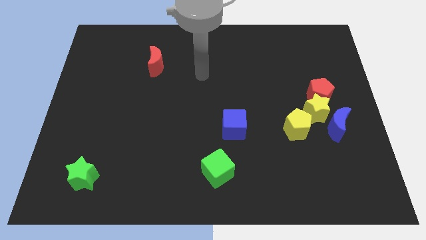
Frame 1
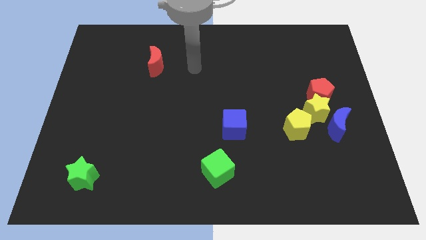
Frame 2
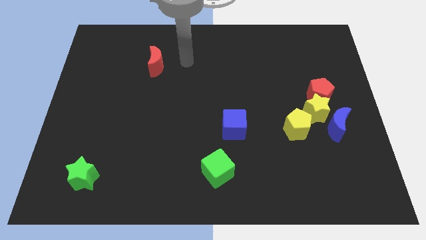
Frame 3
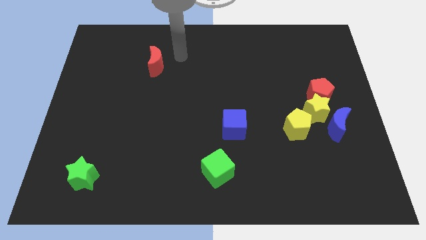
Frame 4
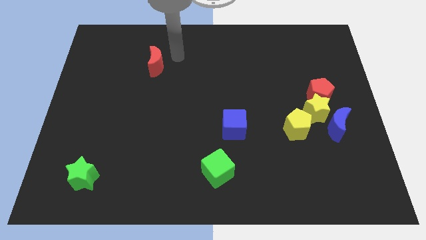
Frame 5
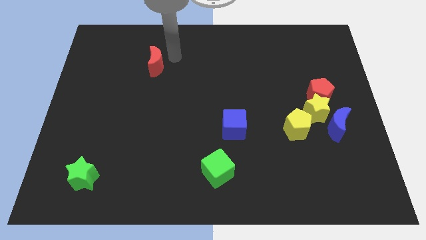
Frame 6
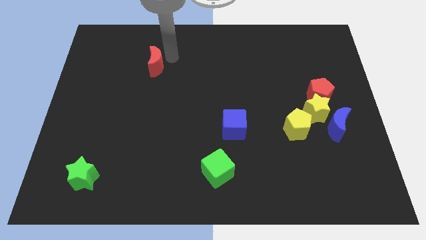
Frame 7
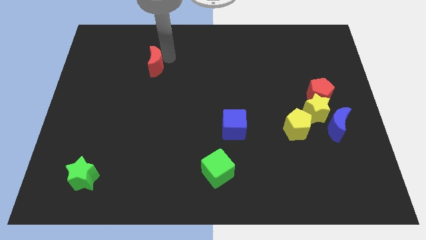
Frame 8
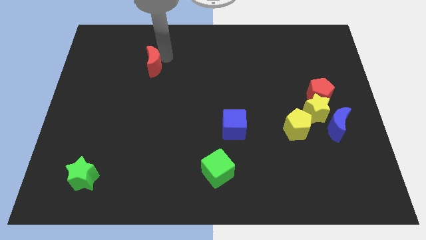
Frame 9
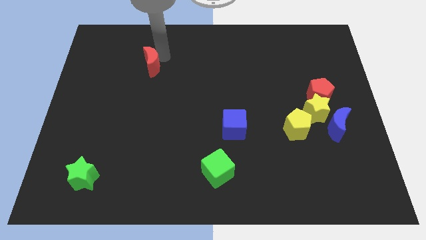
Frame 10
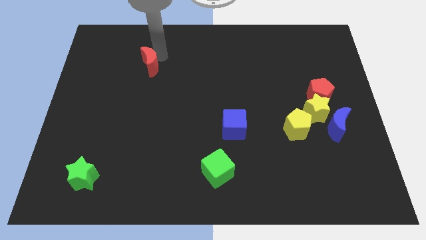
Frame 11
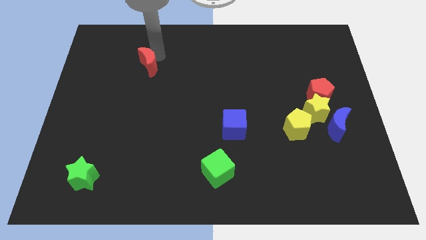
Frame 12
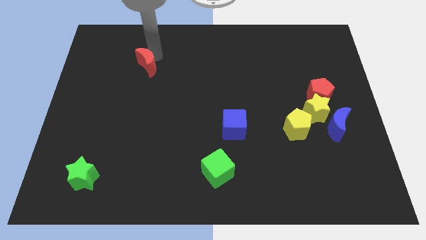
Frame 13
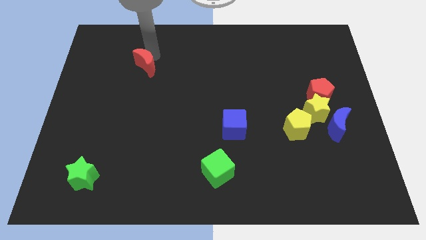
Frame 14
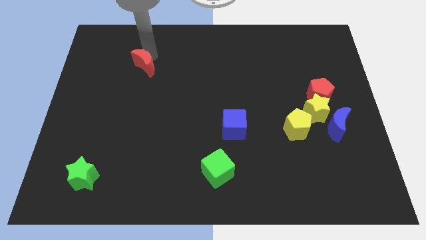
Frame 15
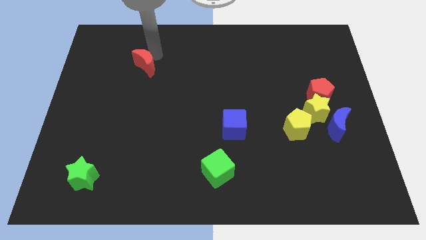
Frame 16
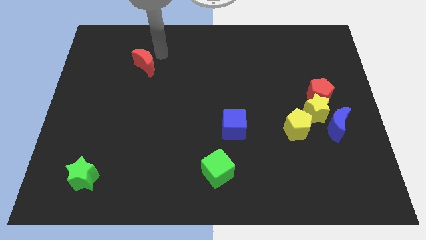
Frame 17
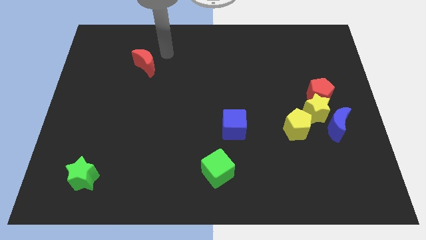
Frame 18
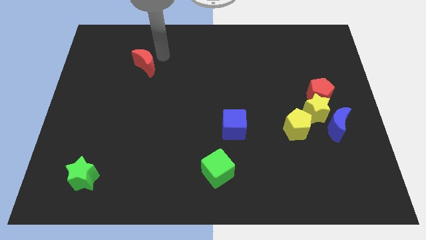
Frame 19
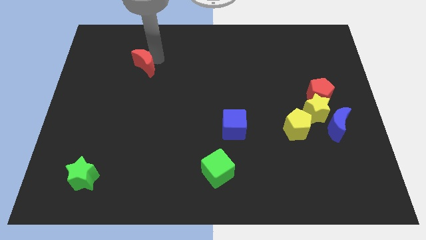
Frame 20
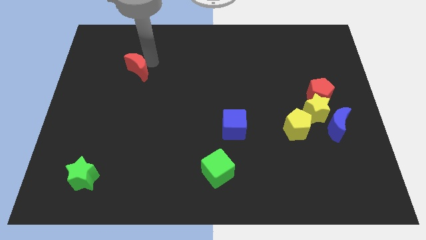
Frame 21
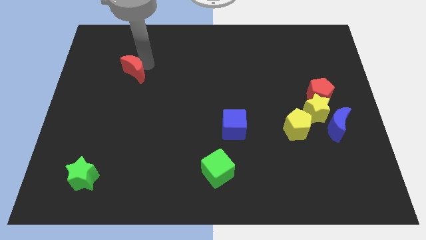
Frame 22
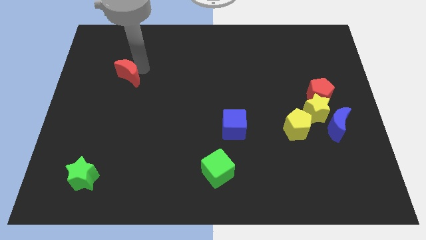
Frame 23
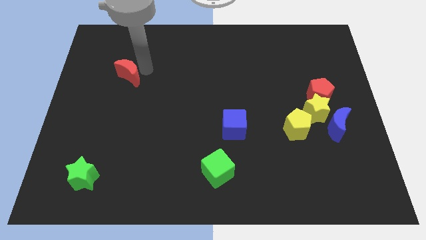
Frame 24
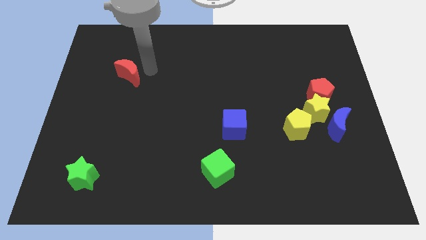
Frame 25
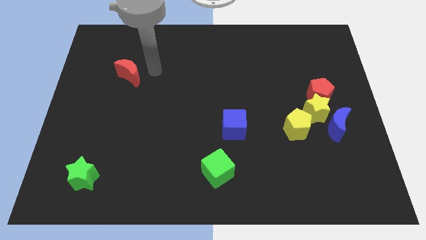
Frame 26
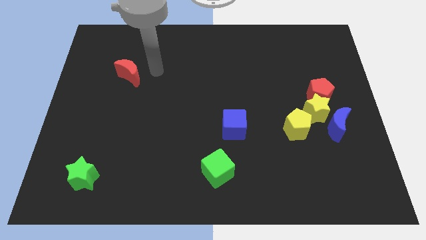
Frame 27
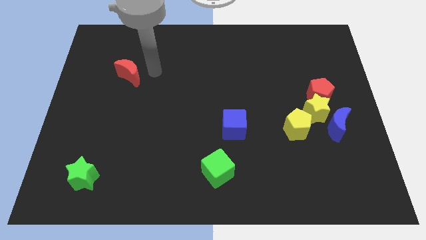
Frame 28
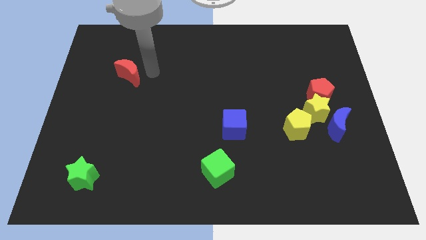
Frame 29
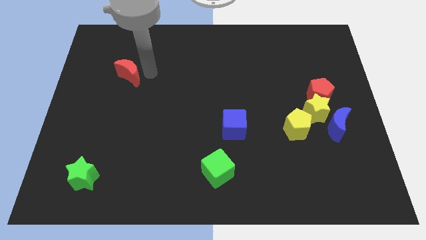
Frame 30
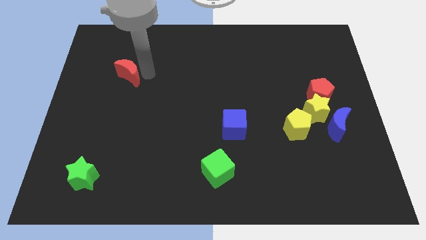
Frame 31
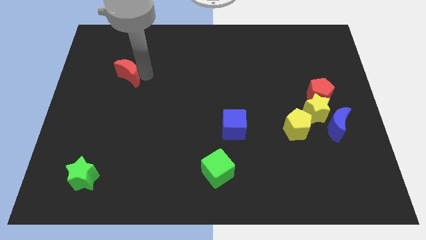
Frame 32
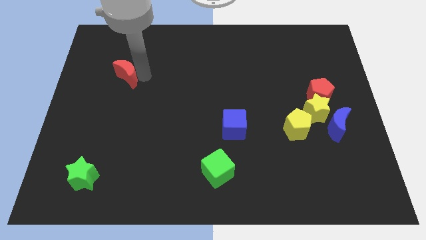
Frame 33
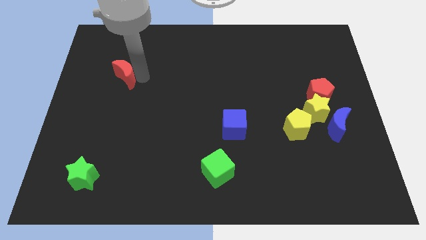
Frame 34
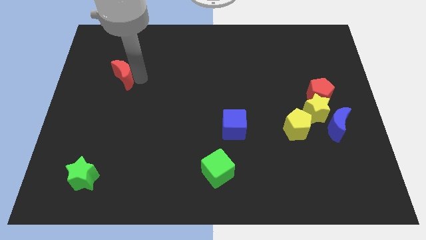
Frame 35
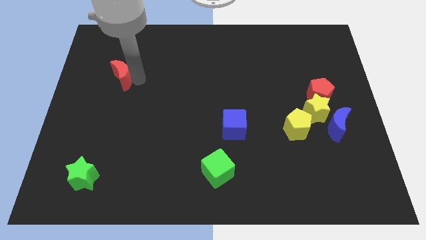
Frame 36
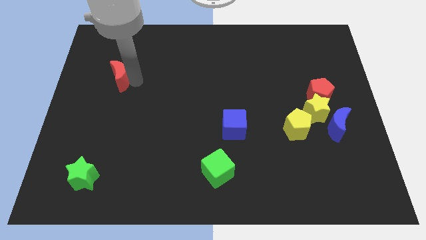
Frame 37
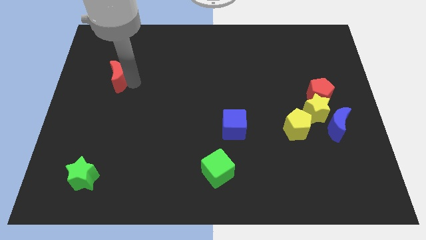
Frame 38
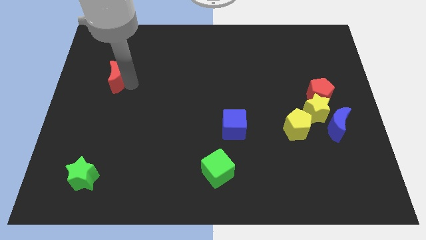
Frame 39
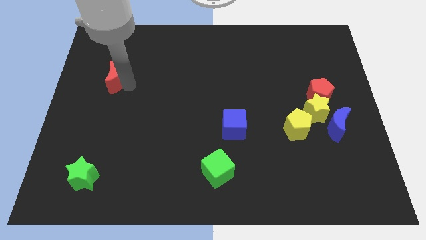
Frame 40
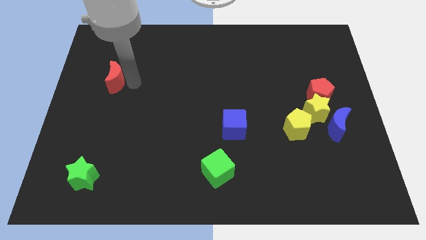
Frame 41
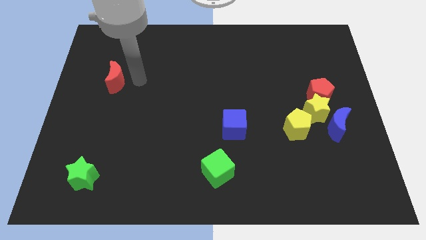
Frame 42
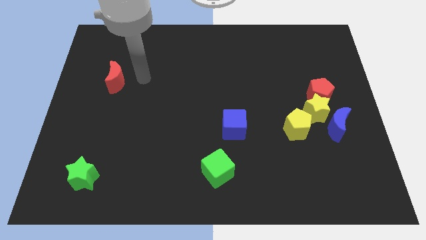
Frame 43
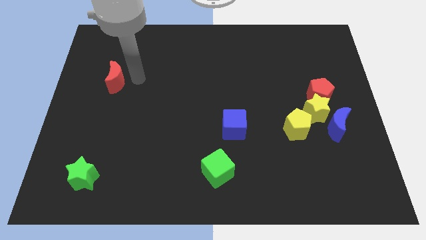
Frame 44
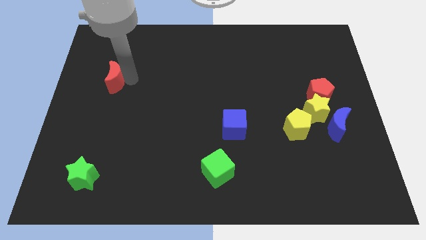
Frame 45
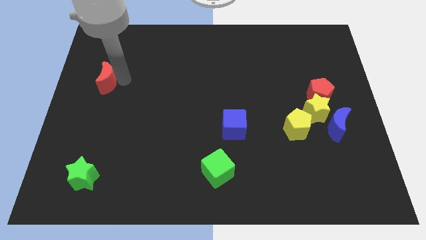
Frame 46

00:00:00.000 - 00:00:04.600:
move the red moon to the left side of the board

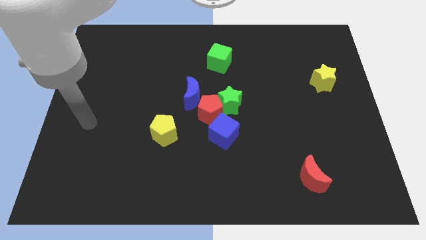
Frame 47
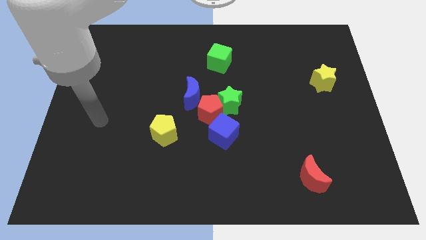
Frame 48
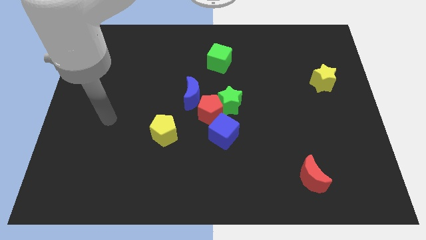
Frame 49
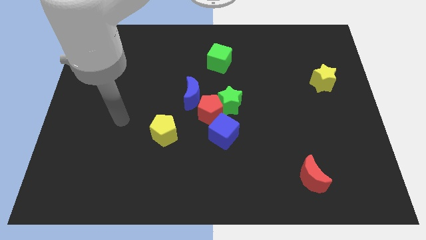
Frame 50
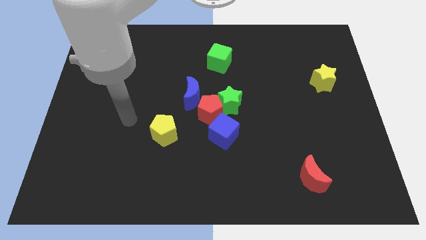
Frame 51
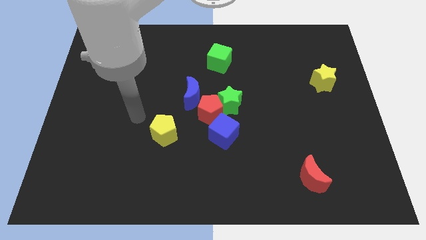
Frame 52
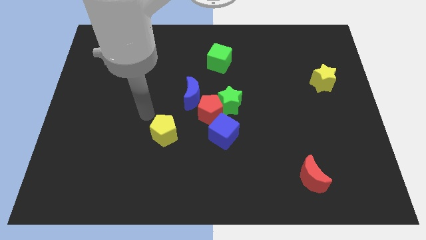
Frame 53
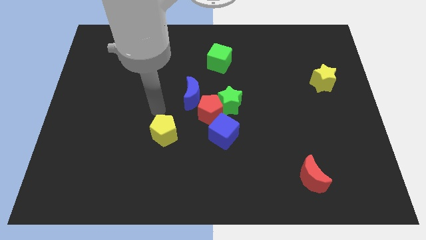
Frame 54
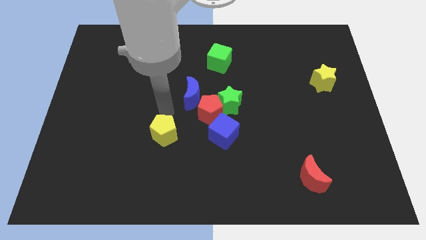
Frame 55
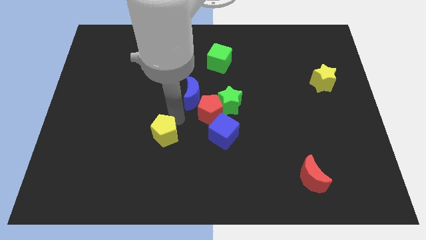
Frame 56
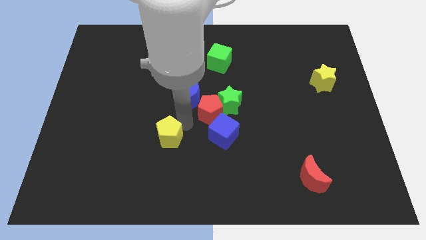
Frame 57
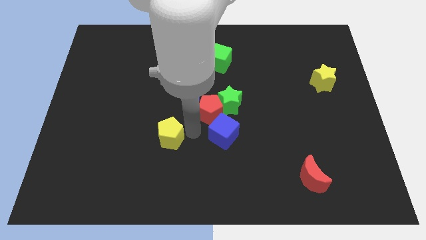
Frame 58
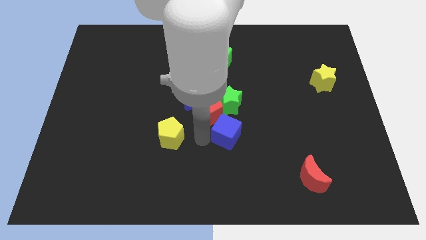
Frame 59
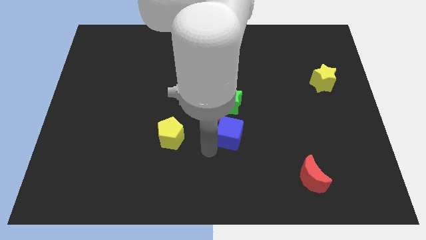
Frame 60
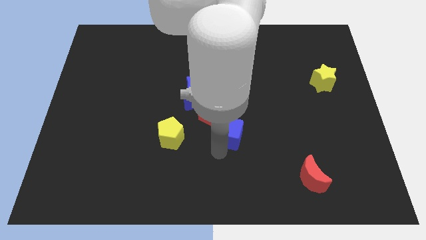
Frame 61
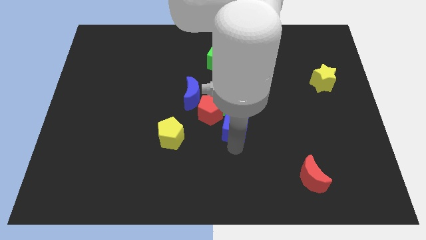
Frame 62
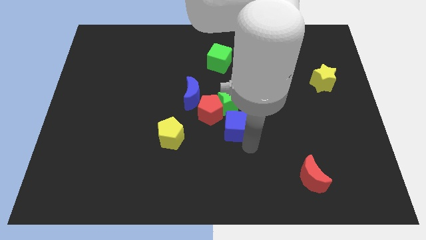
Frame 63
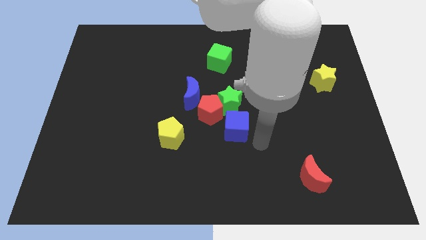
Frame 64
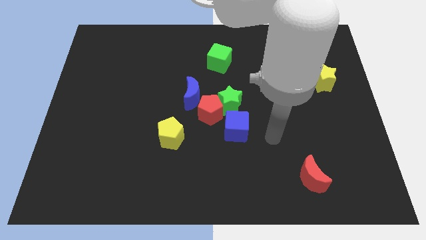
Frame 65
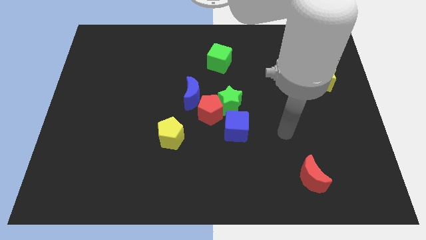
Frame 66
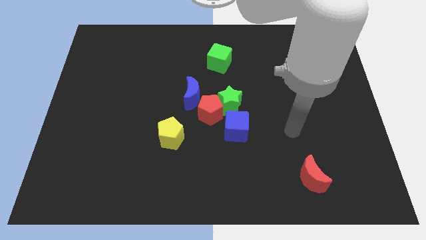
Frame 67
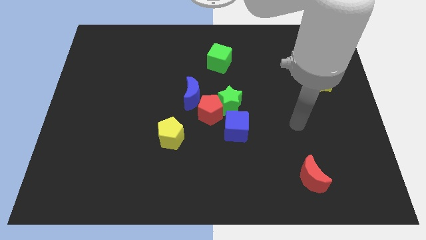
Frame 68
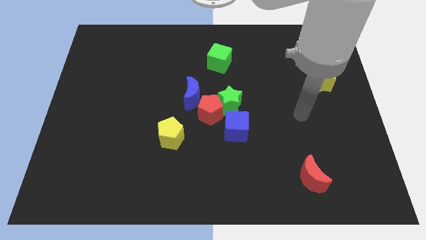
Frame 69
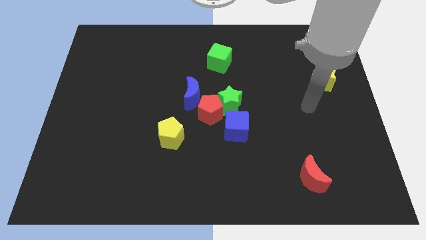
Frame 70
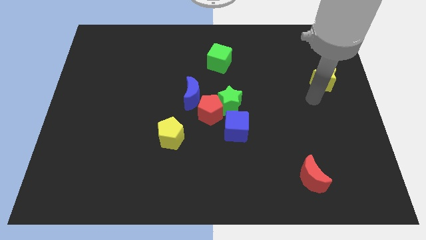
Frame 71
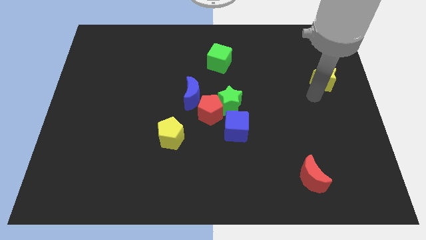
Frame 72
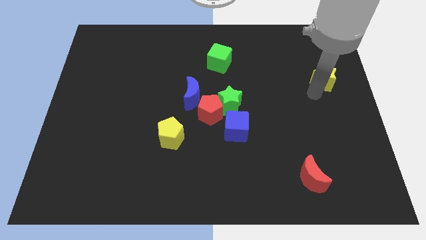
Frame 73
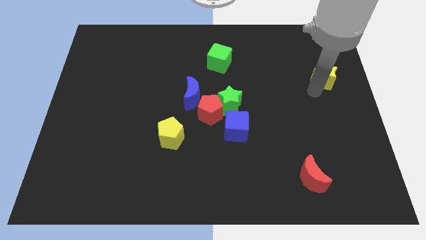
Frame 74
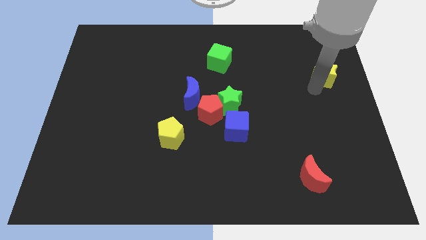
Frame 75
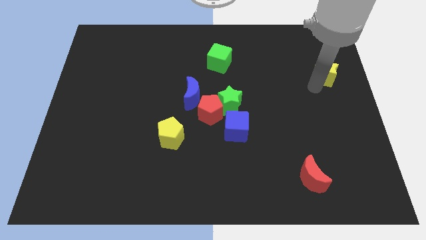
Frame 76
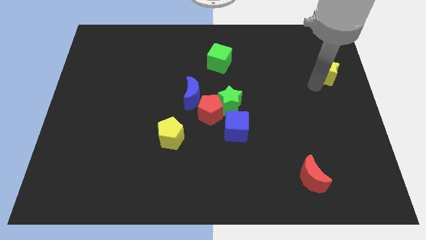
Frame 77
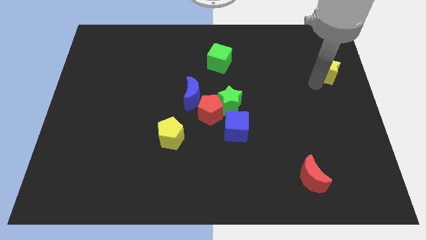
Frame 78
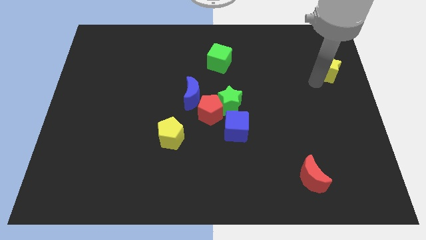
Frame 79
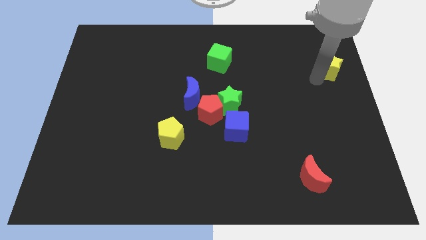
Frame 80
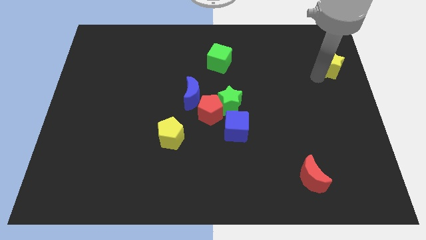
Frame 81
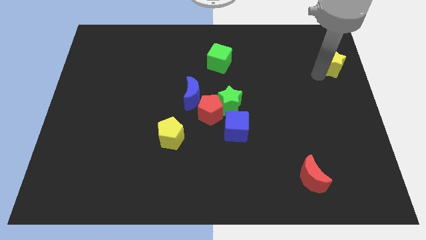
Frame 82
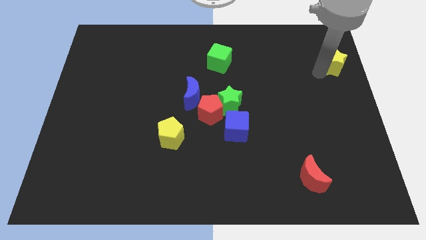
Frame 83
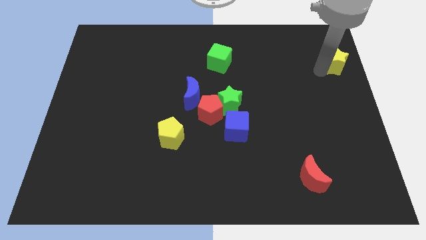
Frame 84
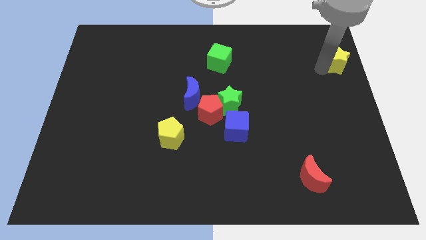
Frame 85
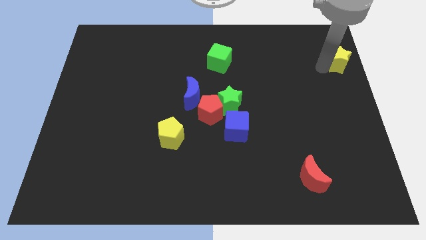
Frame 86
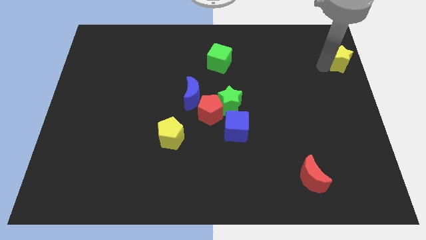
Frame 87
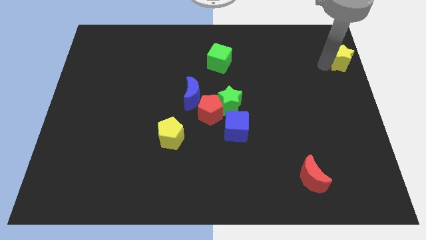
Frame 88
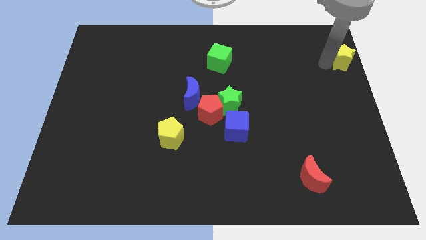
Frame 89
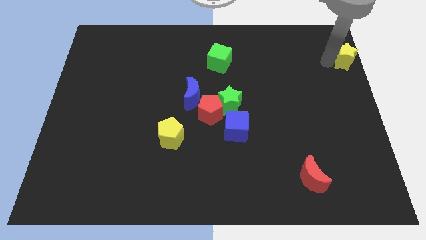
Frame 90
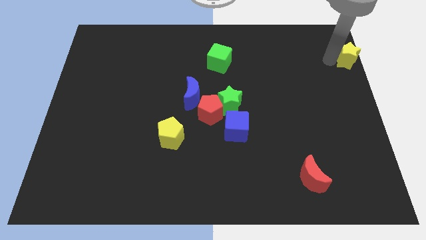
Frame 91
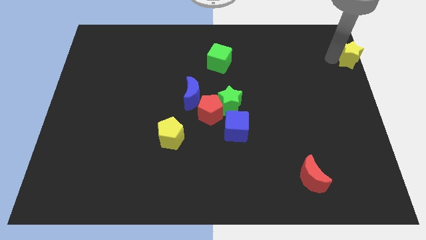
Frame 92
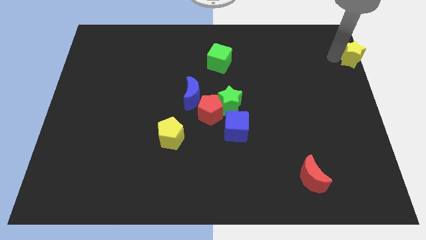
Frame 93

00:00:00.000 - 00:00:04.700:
push the yellow star to the top right of the board
